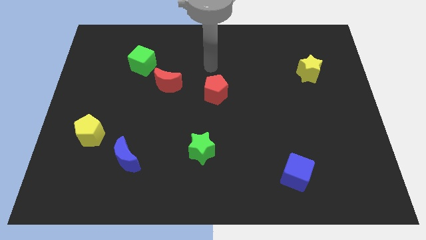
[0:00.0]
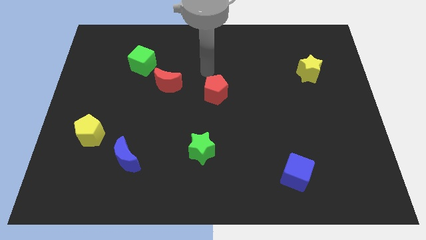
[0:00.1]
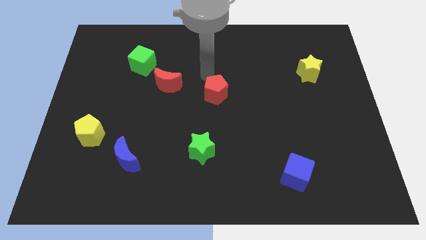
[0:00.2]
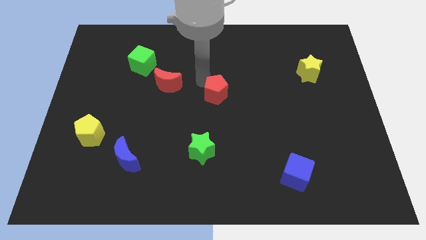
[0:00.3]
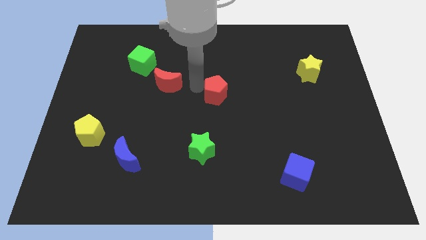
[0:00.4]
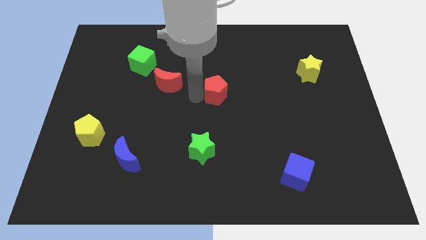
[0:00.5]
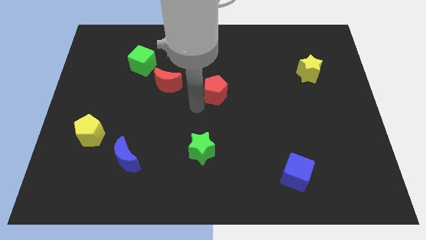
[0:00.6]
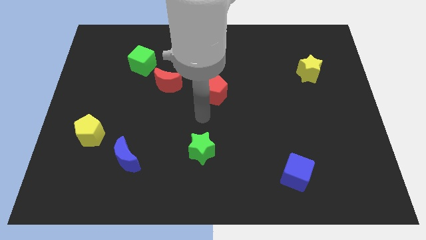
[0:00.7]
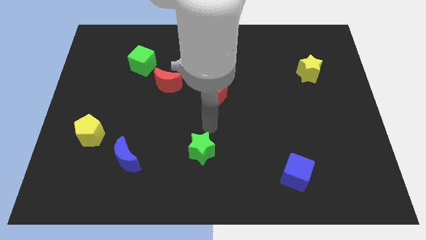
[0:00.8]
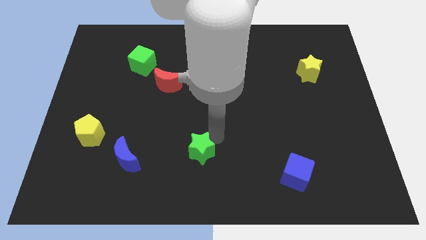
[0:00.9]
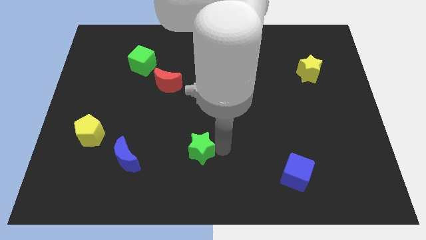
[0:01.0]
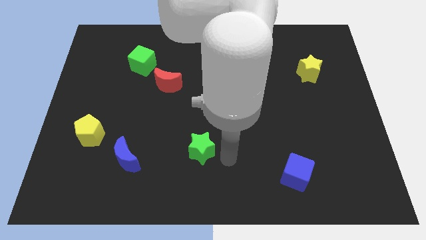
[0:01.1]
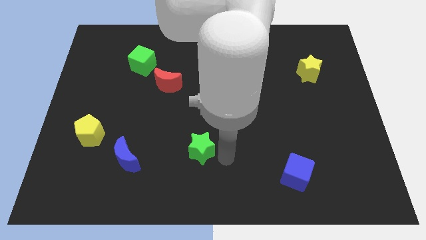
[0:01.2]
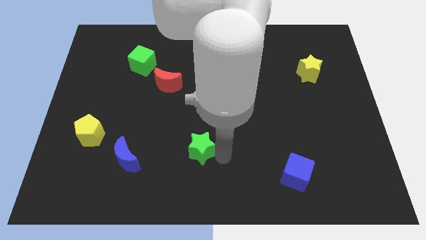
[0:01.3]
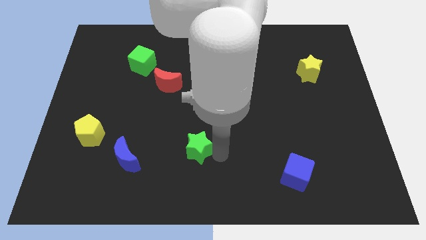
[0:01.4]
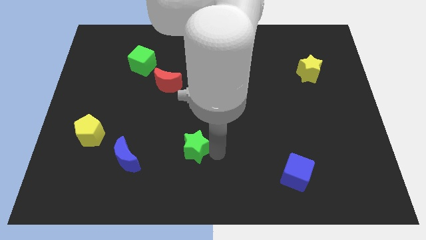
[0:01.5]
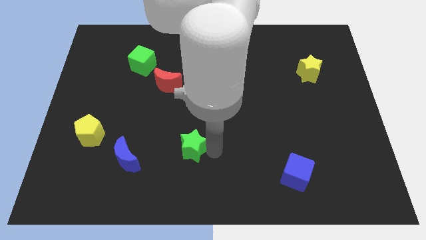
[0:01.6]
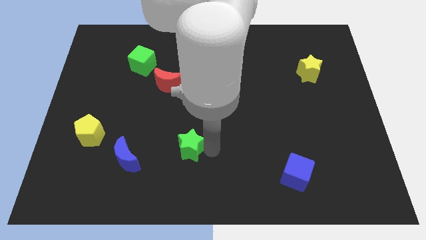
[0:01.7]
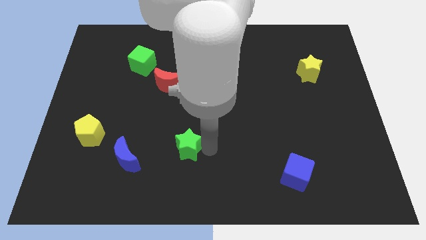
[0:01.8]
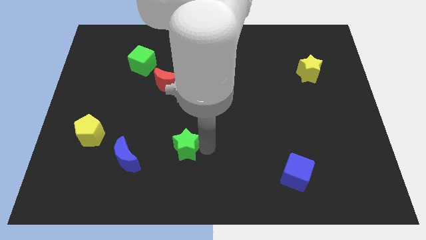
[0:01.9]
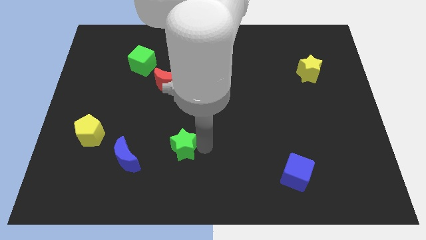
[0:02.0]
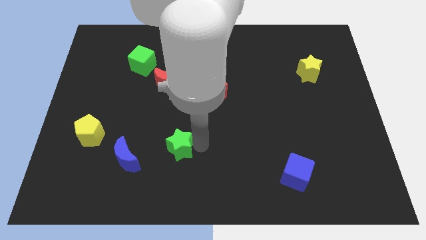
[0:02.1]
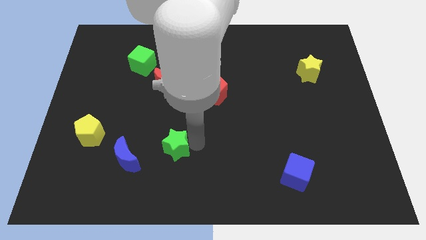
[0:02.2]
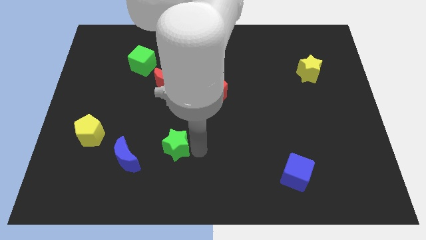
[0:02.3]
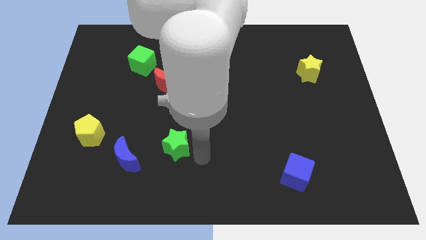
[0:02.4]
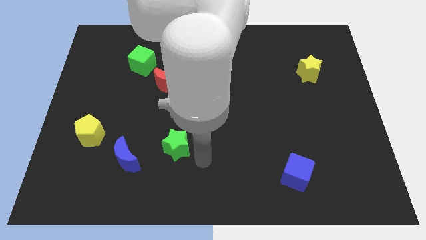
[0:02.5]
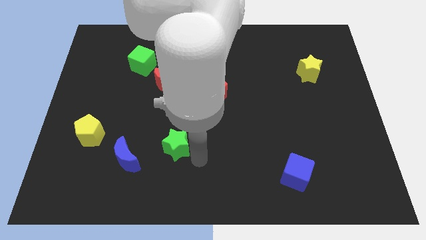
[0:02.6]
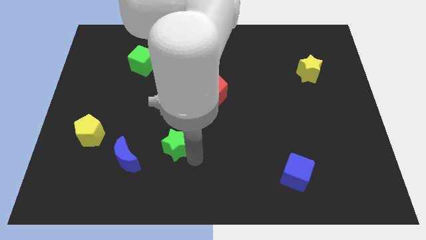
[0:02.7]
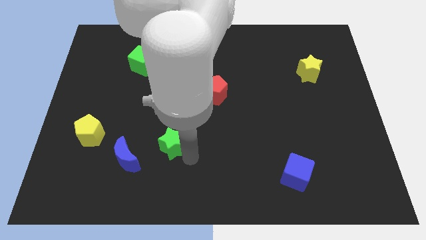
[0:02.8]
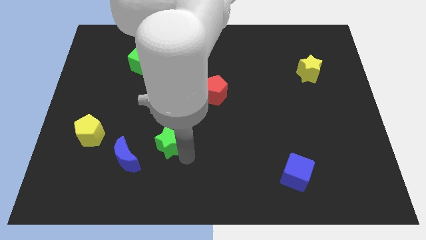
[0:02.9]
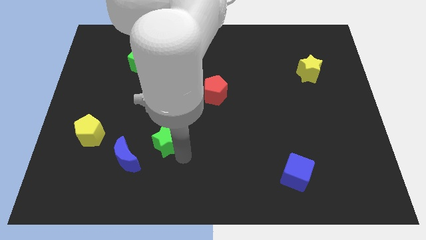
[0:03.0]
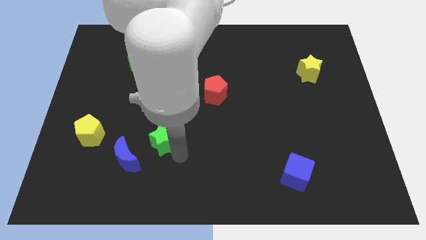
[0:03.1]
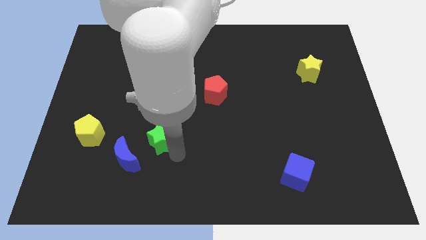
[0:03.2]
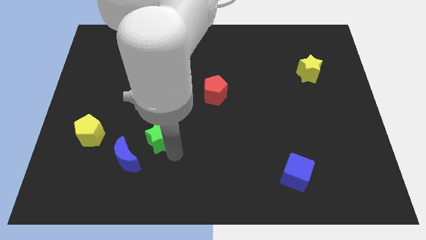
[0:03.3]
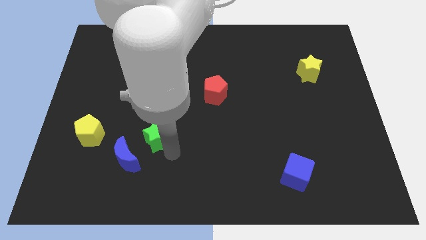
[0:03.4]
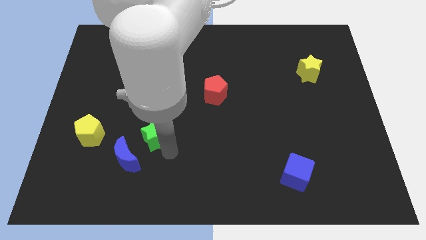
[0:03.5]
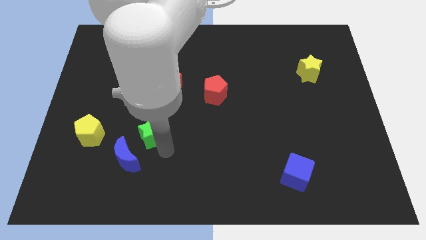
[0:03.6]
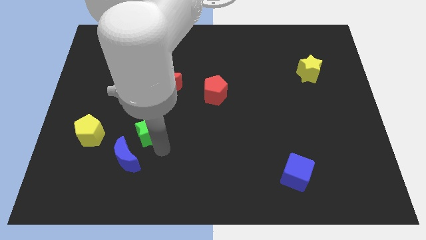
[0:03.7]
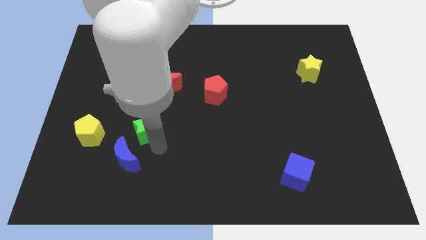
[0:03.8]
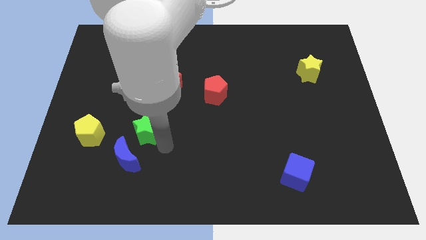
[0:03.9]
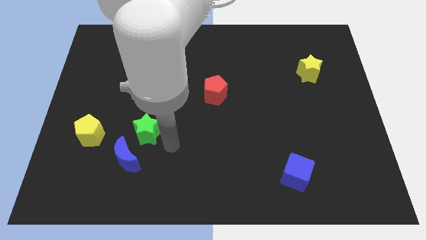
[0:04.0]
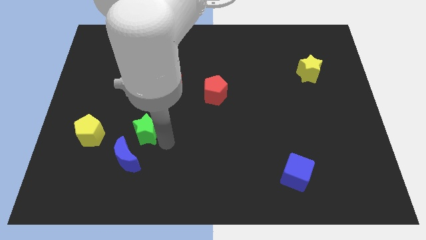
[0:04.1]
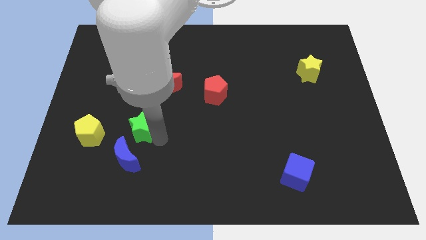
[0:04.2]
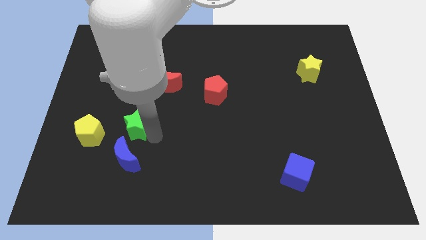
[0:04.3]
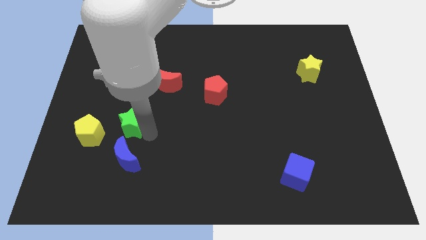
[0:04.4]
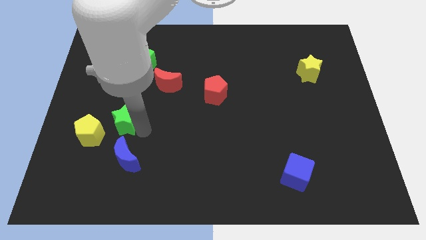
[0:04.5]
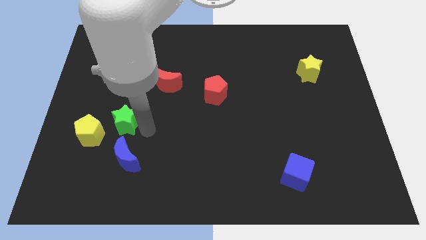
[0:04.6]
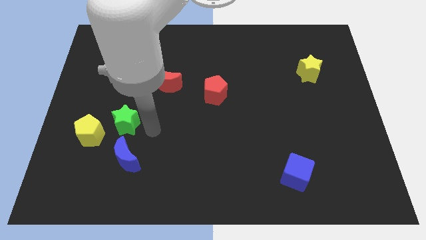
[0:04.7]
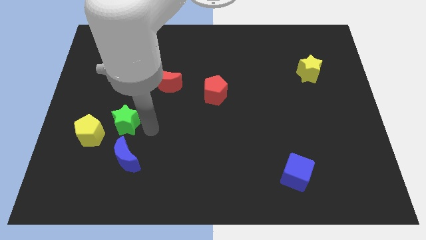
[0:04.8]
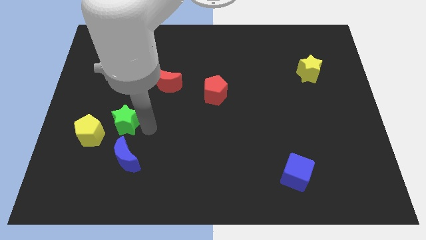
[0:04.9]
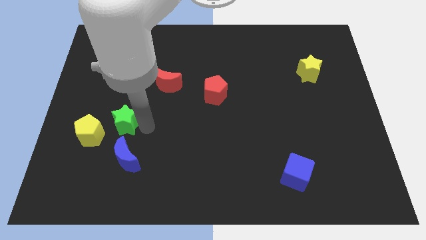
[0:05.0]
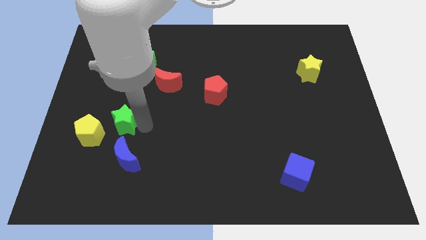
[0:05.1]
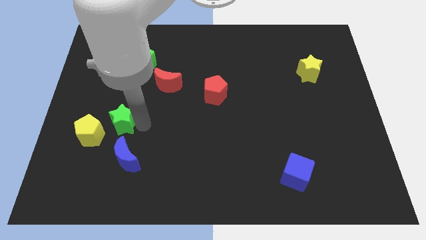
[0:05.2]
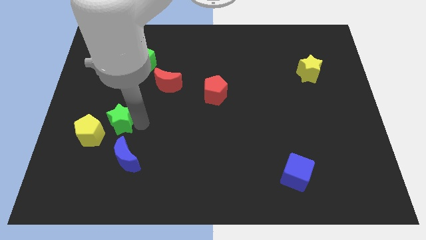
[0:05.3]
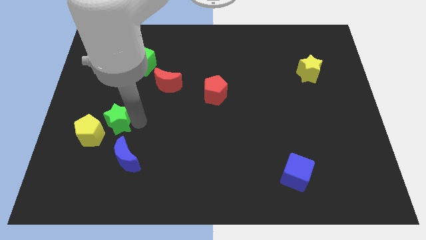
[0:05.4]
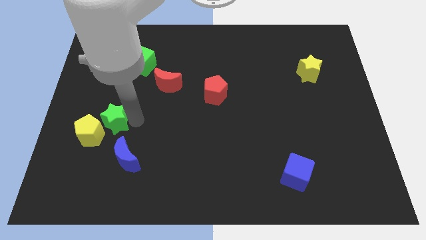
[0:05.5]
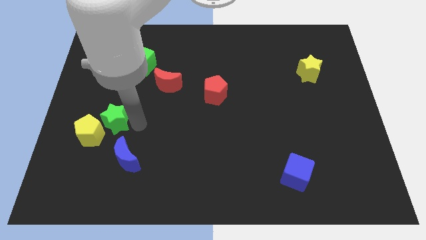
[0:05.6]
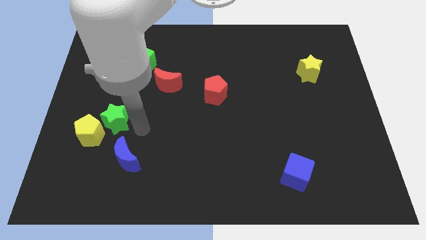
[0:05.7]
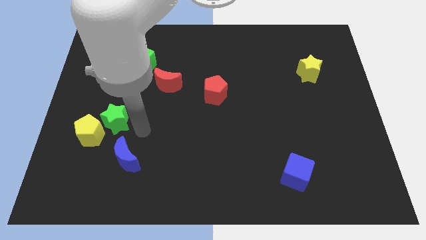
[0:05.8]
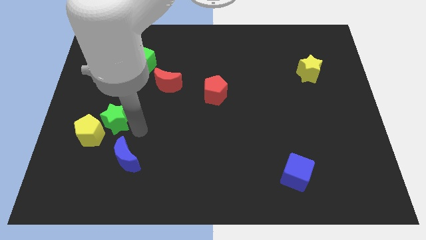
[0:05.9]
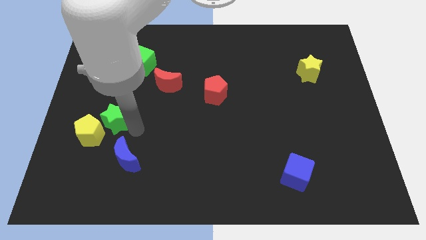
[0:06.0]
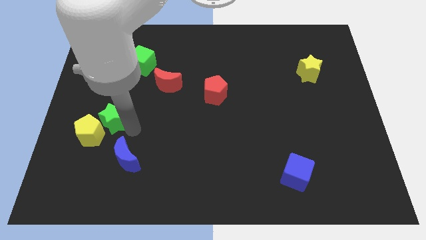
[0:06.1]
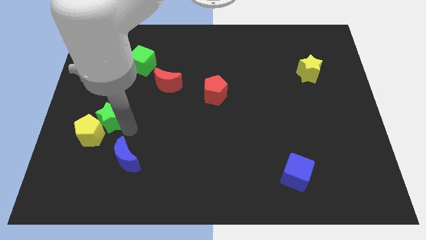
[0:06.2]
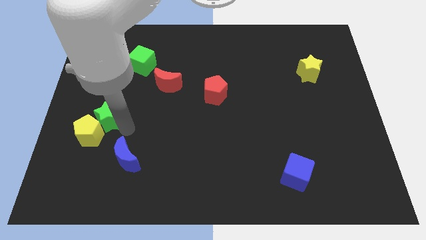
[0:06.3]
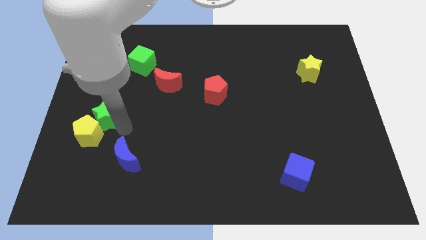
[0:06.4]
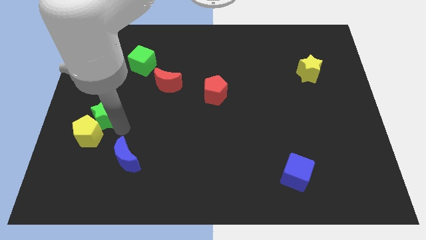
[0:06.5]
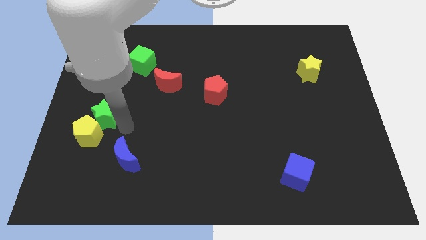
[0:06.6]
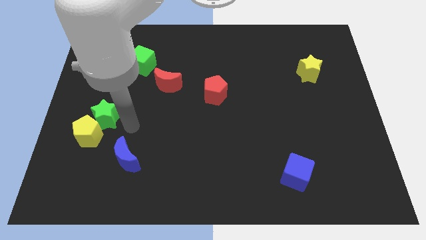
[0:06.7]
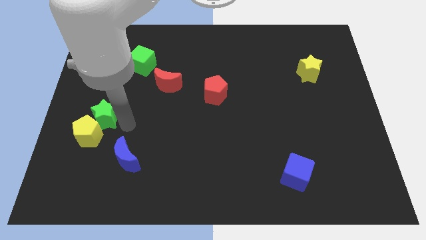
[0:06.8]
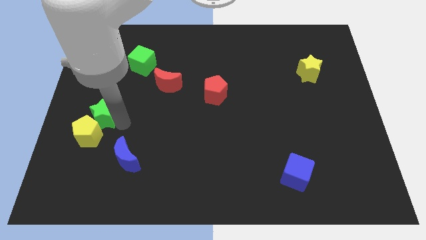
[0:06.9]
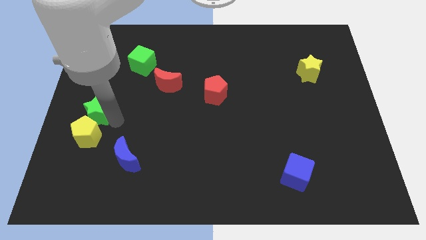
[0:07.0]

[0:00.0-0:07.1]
push the green star to the left side

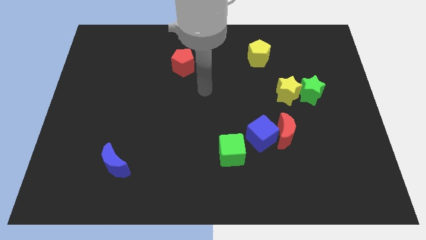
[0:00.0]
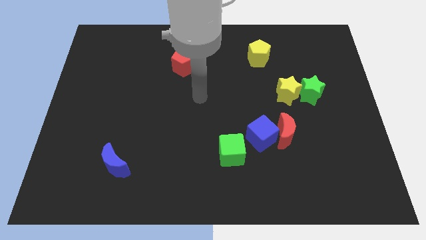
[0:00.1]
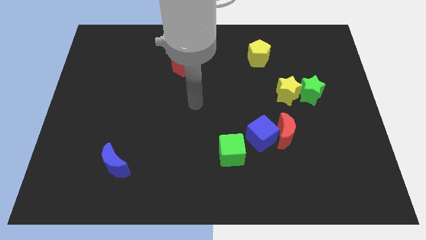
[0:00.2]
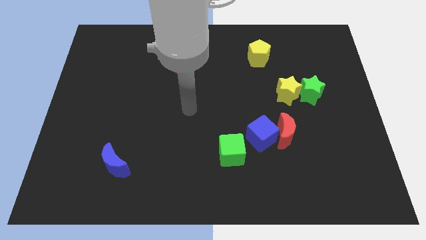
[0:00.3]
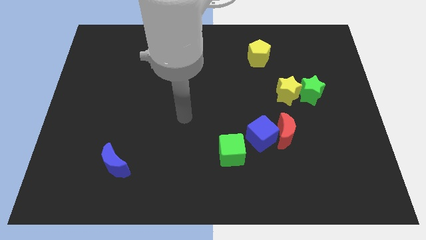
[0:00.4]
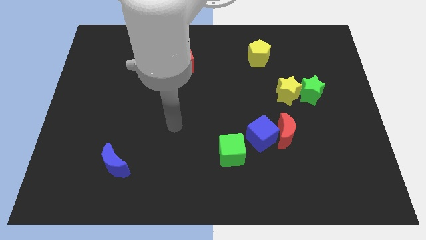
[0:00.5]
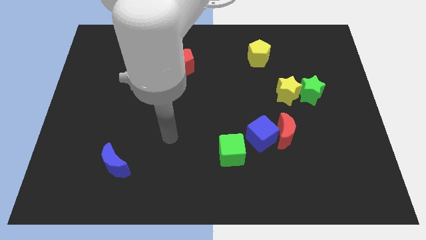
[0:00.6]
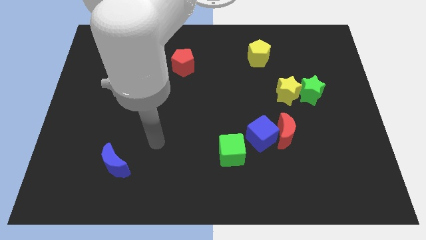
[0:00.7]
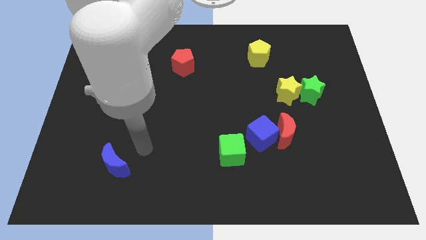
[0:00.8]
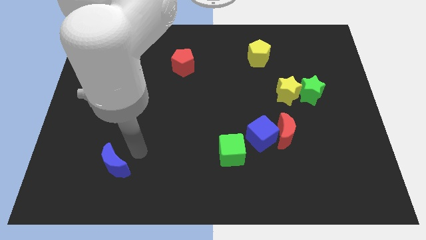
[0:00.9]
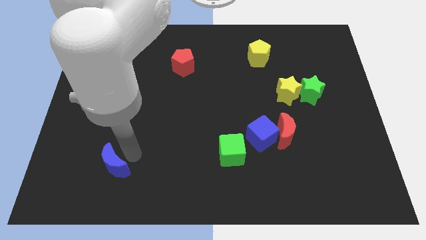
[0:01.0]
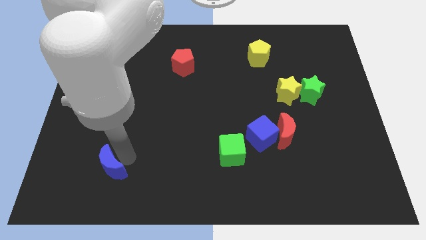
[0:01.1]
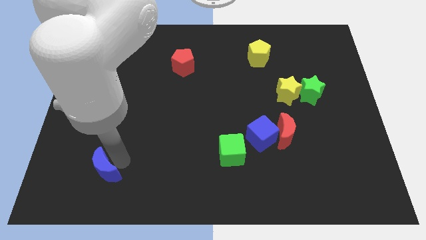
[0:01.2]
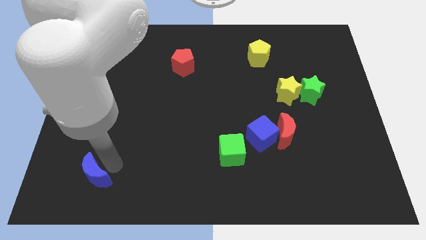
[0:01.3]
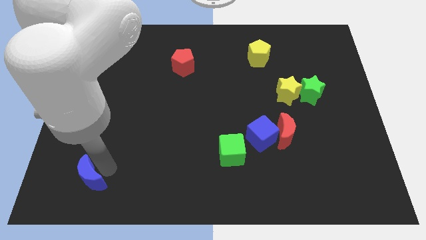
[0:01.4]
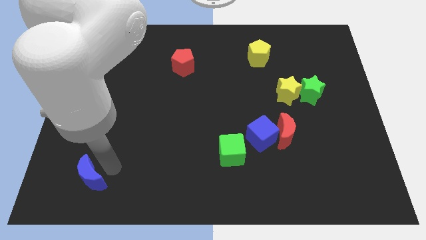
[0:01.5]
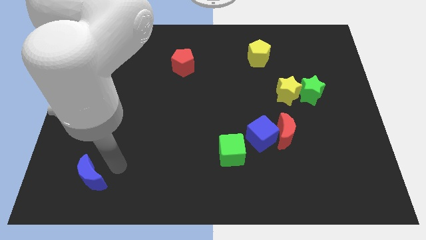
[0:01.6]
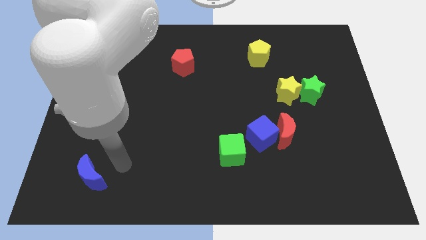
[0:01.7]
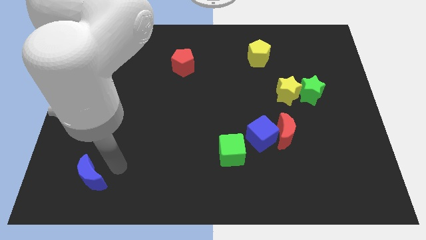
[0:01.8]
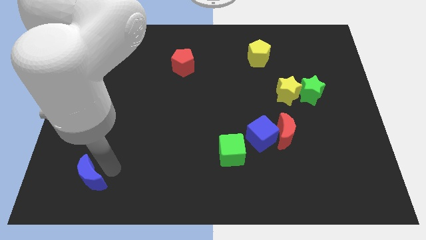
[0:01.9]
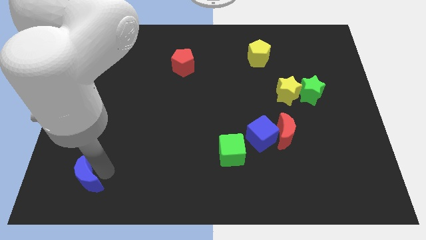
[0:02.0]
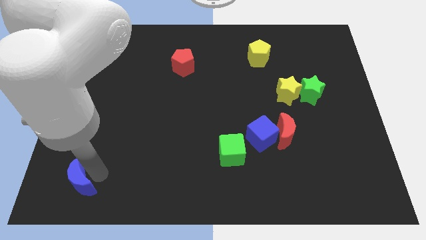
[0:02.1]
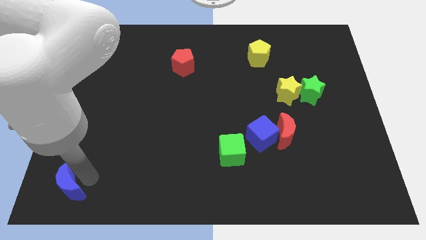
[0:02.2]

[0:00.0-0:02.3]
put the blue moon to the lower left corner
